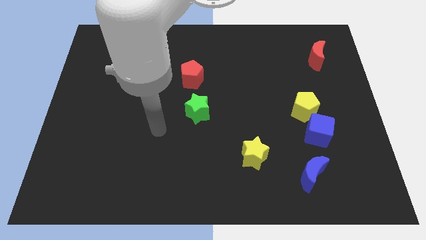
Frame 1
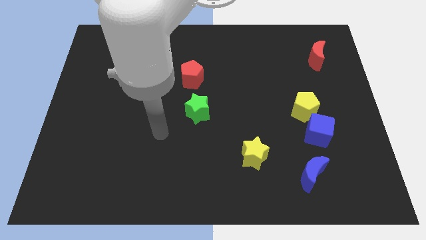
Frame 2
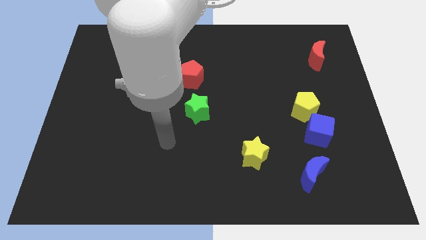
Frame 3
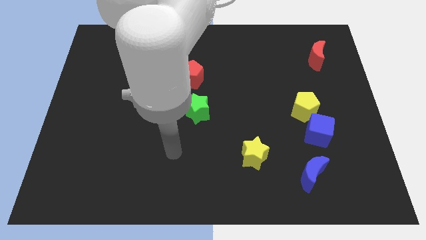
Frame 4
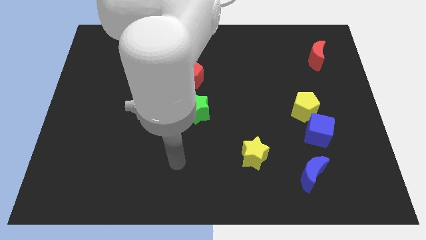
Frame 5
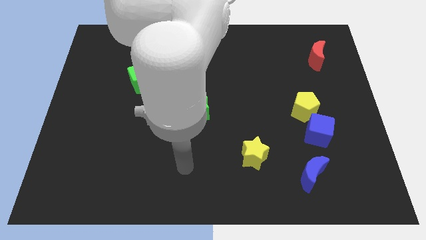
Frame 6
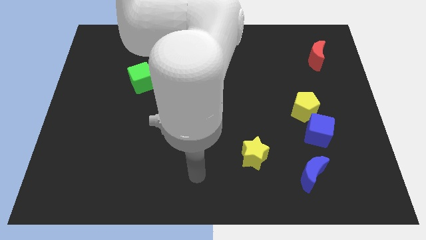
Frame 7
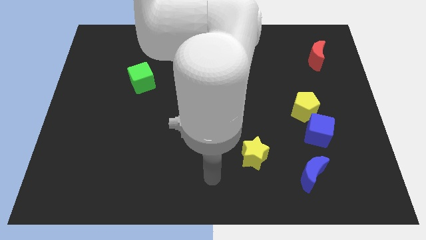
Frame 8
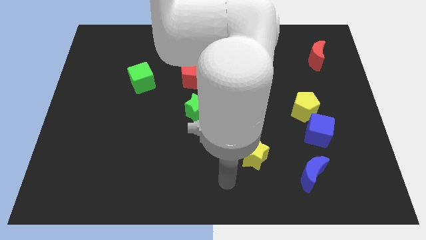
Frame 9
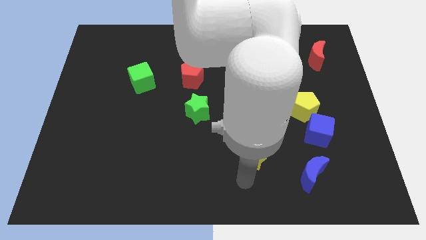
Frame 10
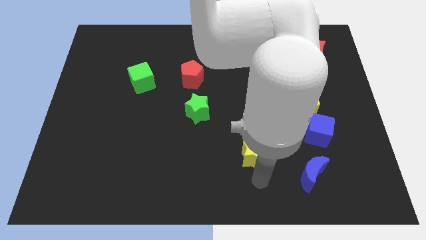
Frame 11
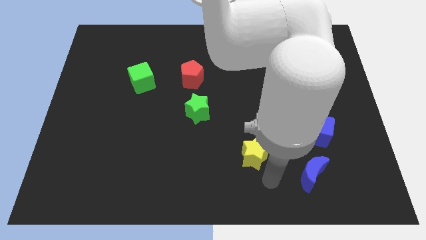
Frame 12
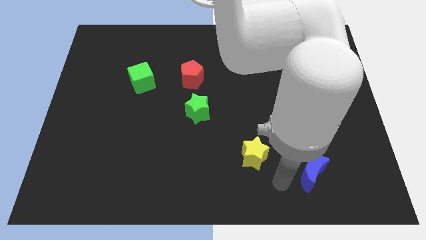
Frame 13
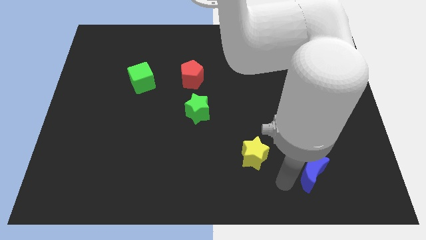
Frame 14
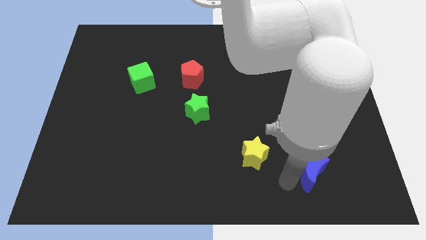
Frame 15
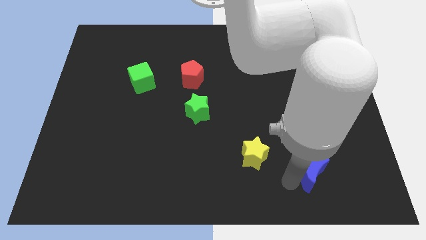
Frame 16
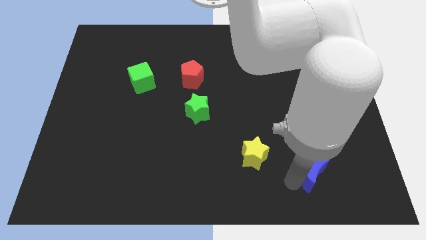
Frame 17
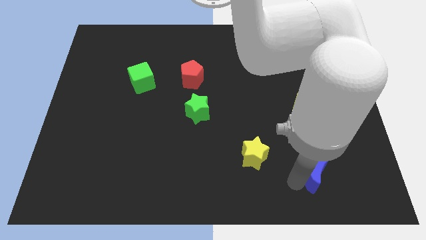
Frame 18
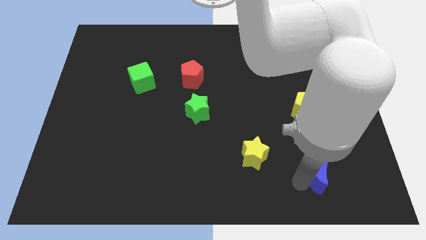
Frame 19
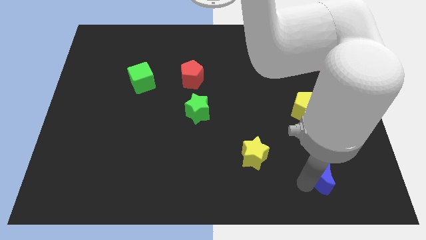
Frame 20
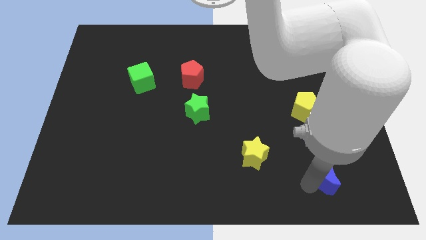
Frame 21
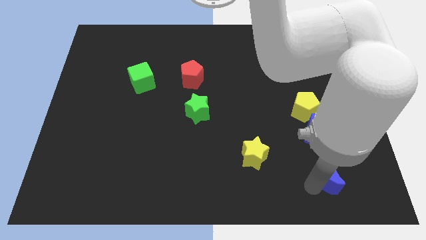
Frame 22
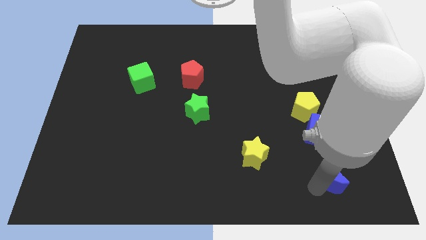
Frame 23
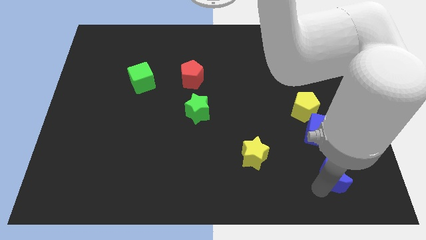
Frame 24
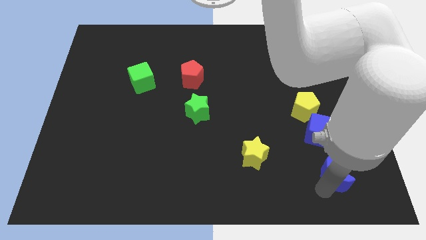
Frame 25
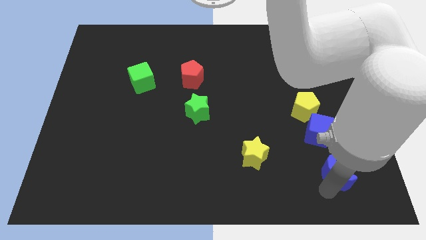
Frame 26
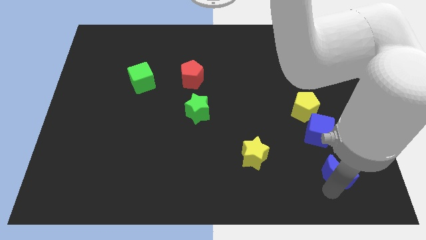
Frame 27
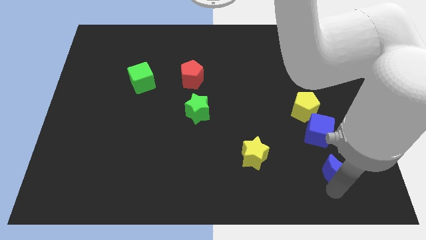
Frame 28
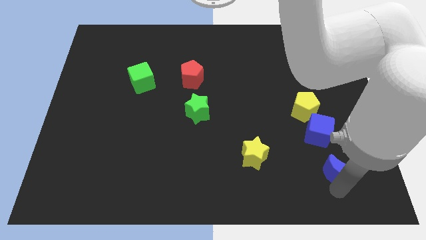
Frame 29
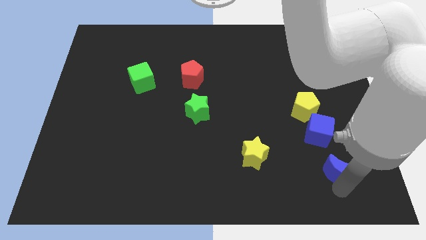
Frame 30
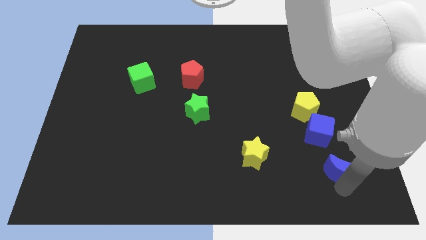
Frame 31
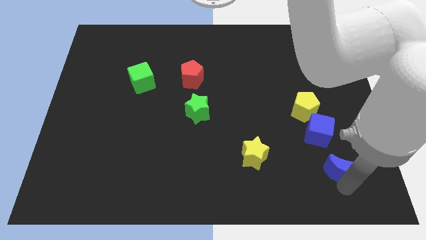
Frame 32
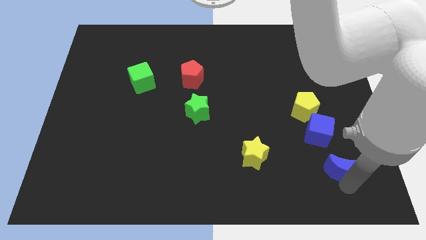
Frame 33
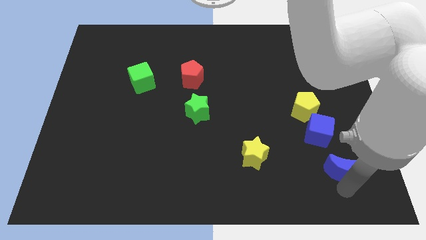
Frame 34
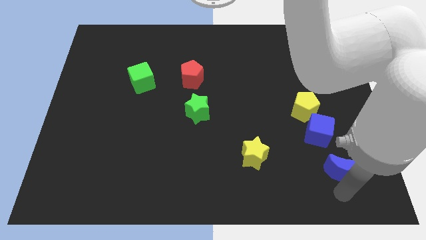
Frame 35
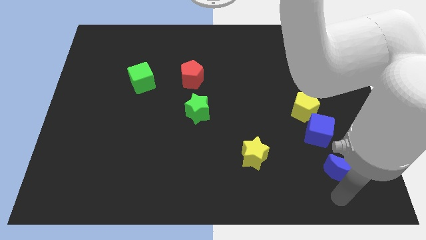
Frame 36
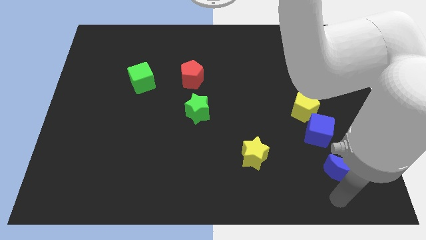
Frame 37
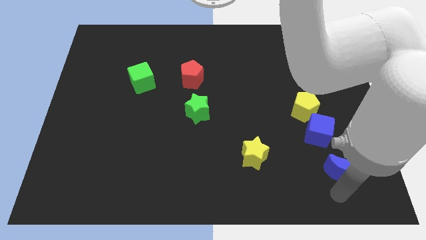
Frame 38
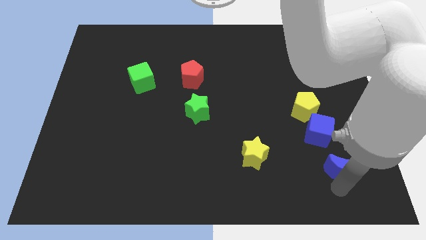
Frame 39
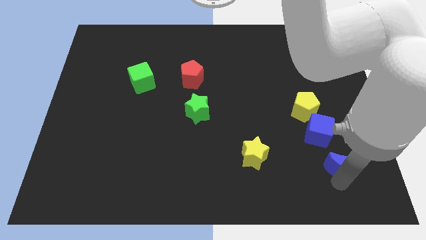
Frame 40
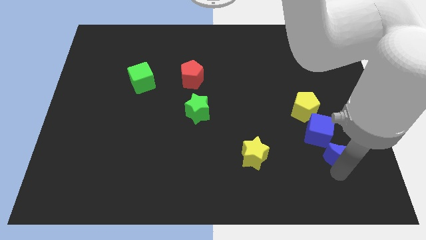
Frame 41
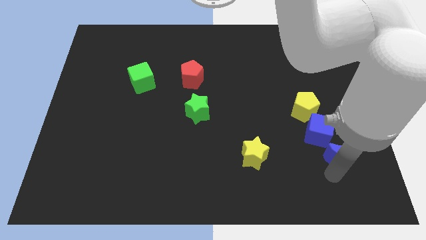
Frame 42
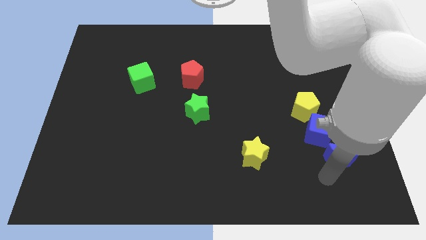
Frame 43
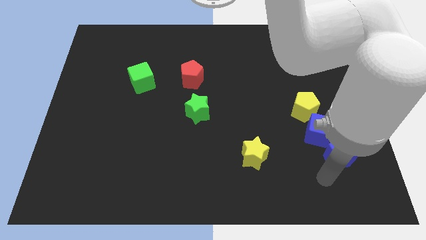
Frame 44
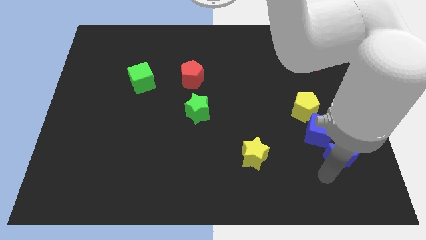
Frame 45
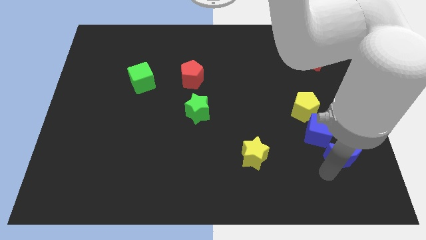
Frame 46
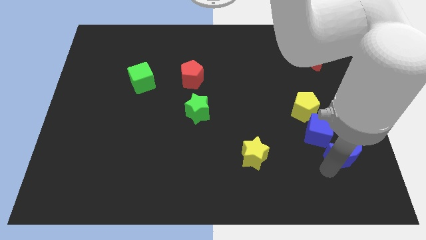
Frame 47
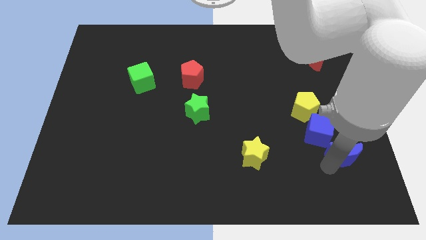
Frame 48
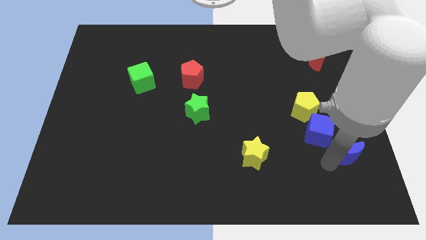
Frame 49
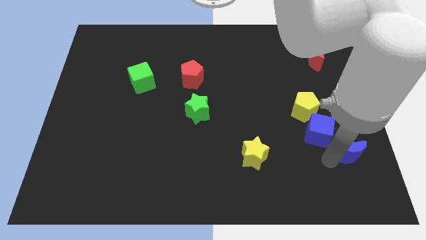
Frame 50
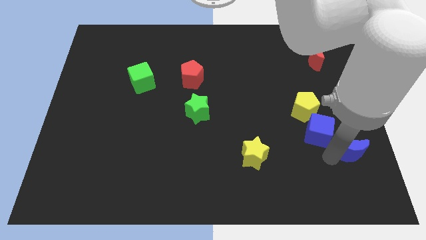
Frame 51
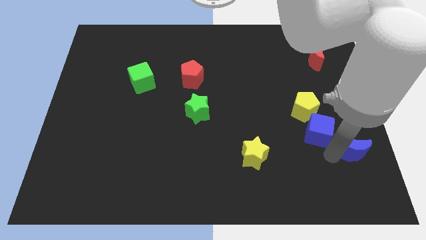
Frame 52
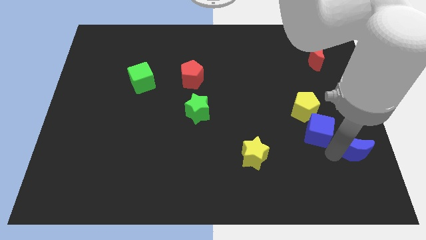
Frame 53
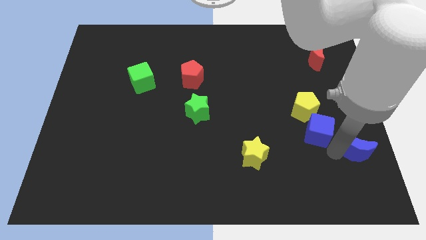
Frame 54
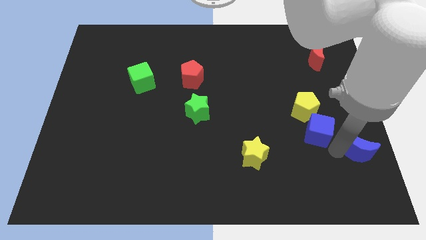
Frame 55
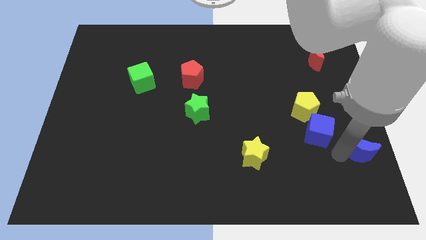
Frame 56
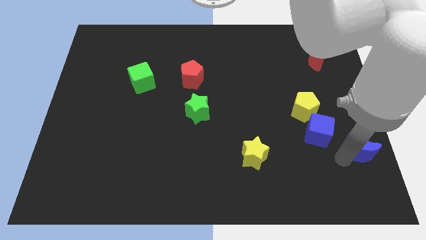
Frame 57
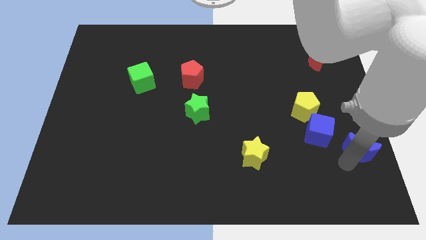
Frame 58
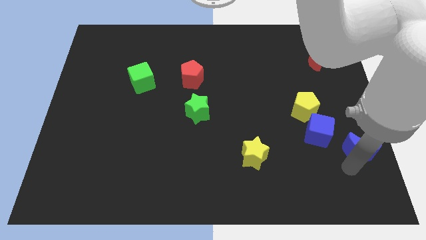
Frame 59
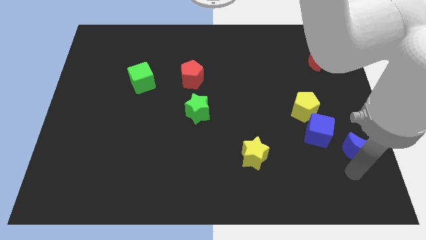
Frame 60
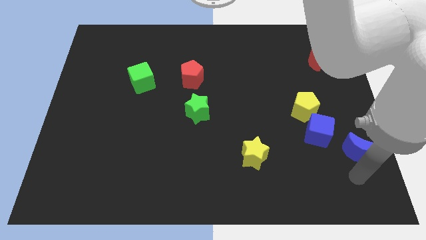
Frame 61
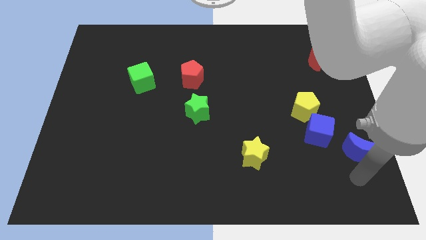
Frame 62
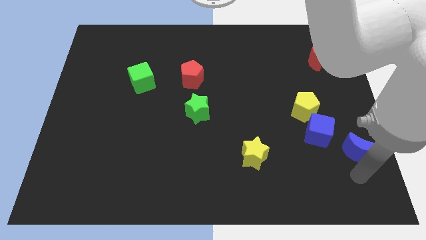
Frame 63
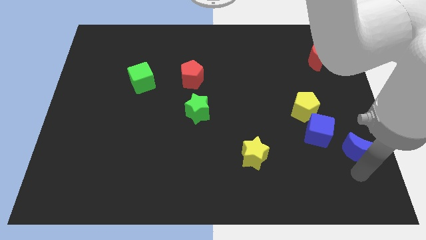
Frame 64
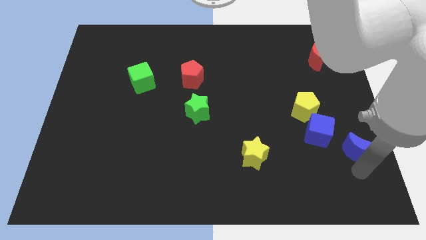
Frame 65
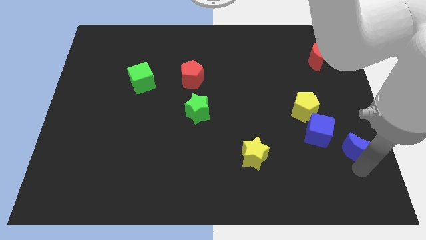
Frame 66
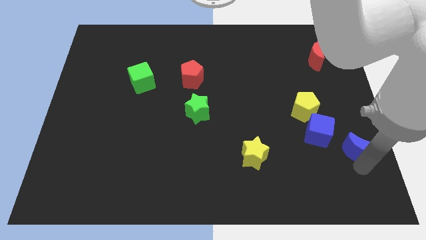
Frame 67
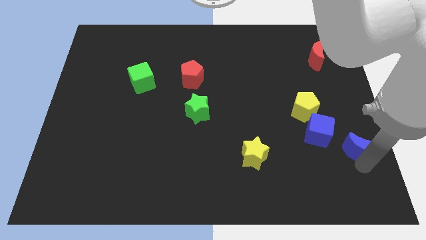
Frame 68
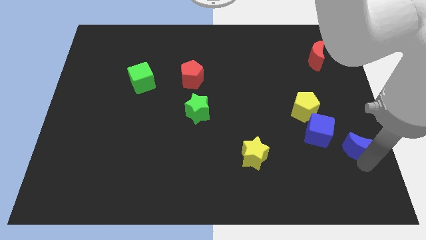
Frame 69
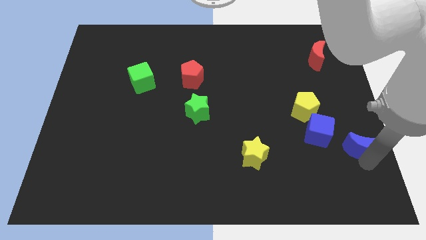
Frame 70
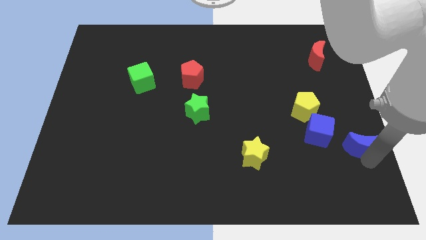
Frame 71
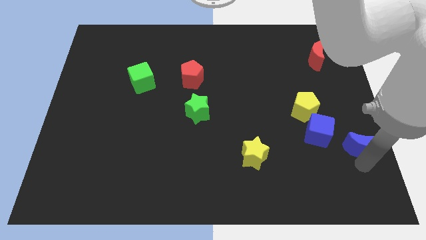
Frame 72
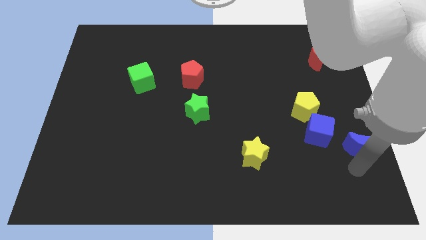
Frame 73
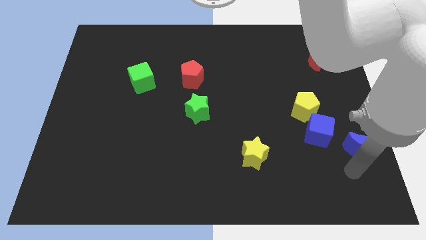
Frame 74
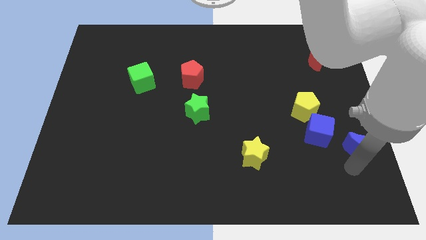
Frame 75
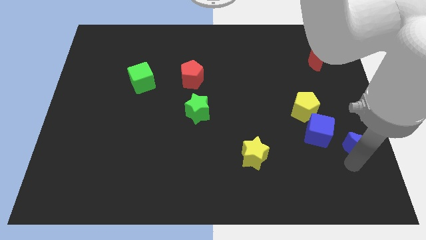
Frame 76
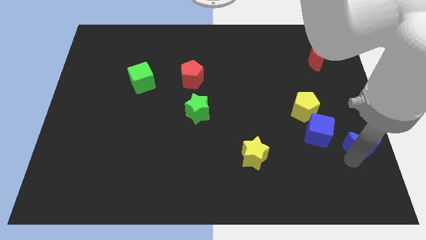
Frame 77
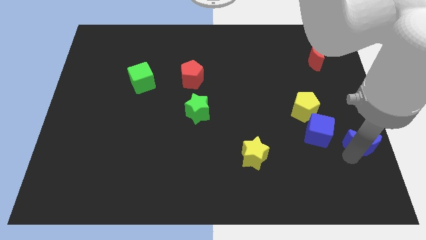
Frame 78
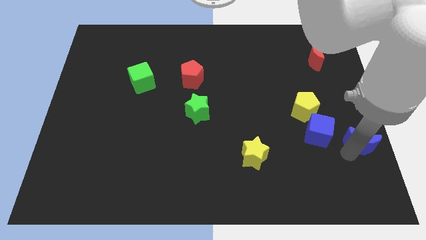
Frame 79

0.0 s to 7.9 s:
move the blue moon to the center right
